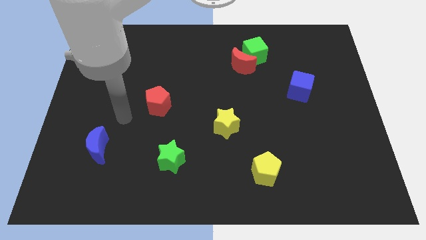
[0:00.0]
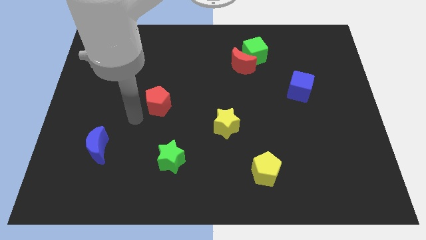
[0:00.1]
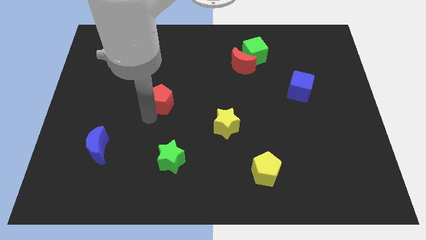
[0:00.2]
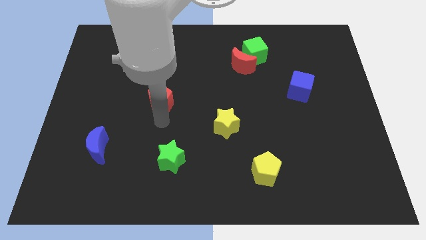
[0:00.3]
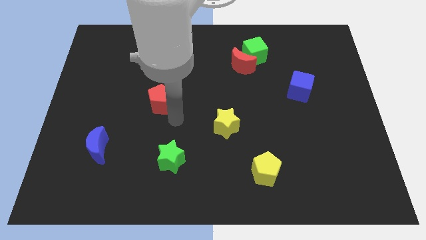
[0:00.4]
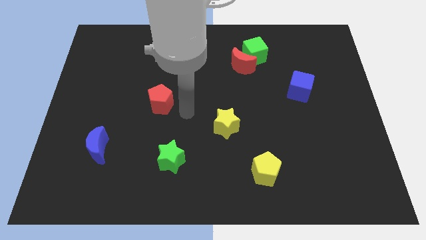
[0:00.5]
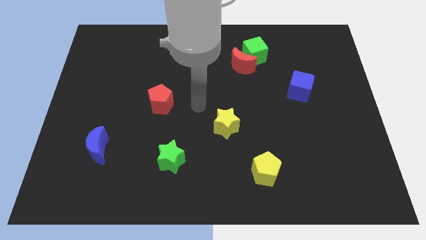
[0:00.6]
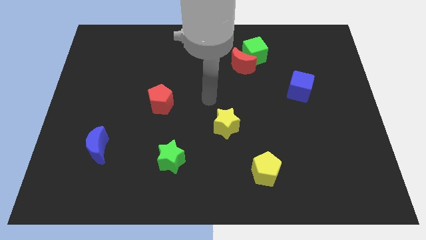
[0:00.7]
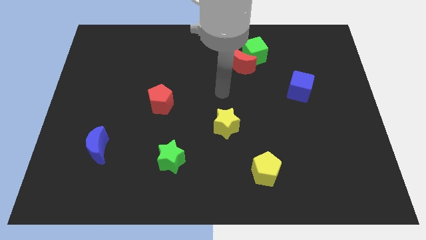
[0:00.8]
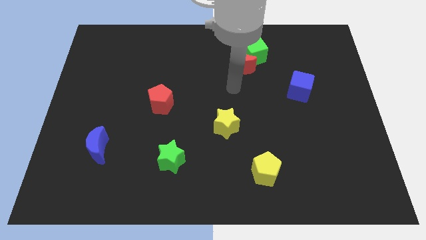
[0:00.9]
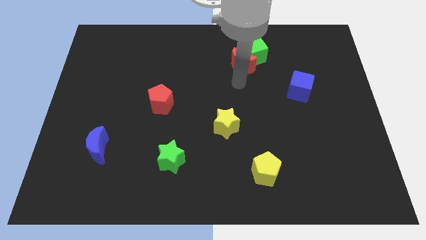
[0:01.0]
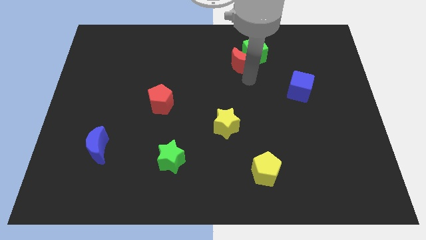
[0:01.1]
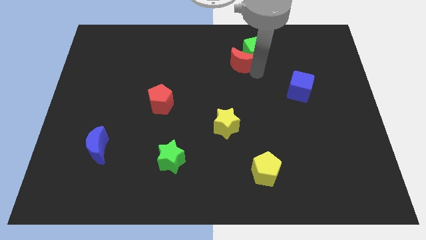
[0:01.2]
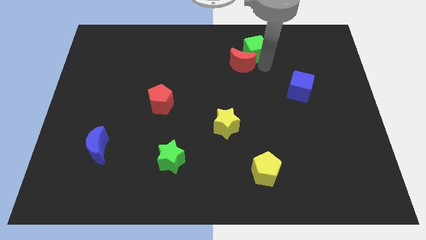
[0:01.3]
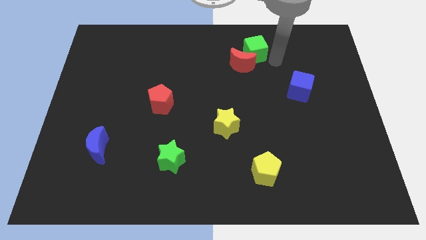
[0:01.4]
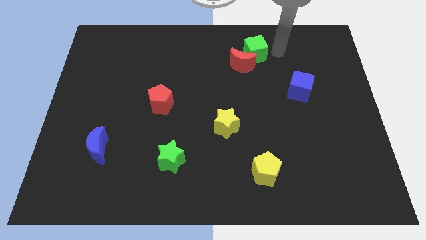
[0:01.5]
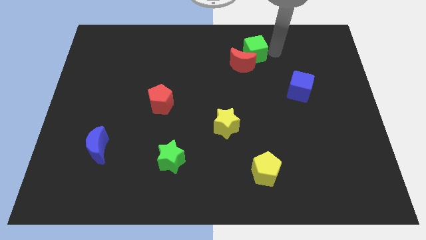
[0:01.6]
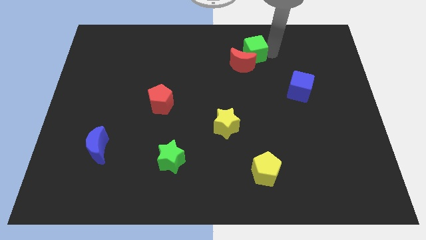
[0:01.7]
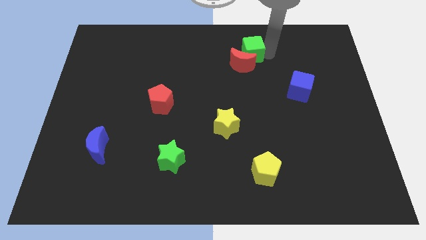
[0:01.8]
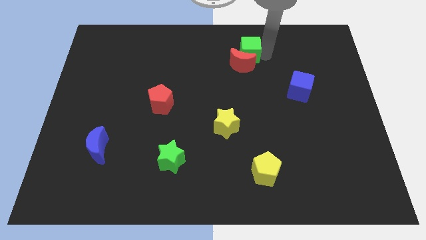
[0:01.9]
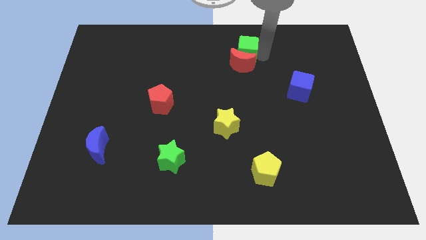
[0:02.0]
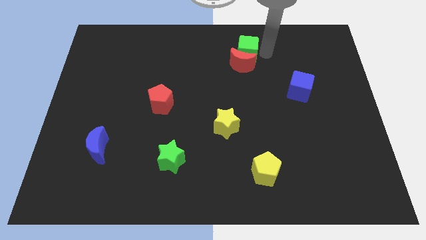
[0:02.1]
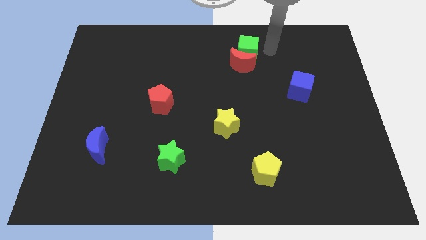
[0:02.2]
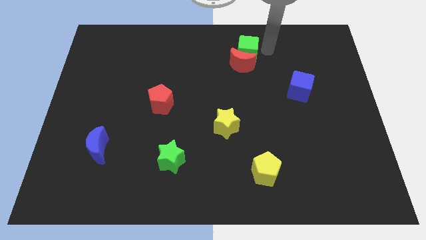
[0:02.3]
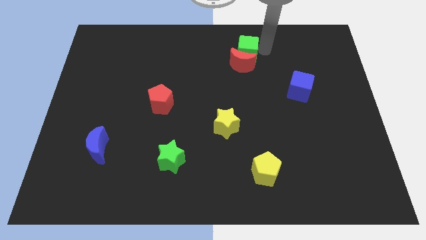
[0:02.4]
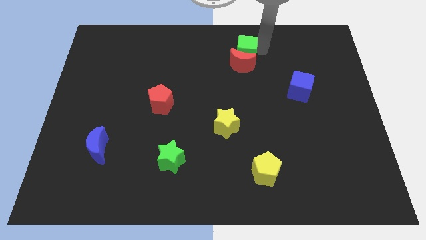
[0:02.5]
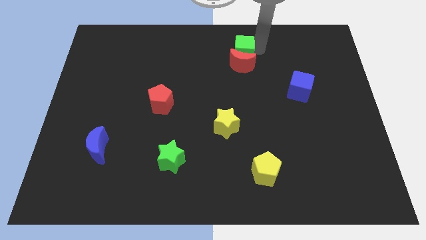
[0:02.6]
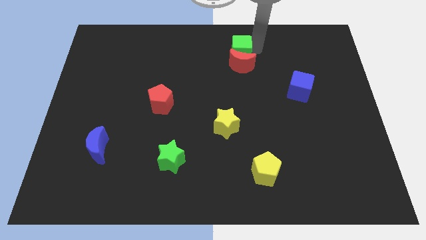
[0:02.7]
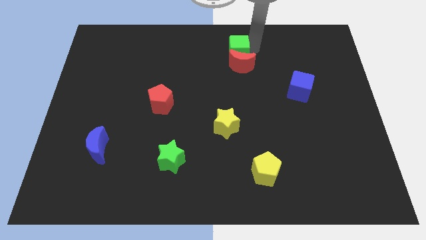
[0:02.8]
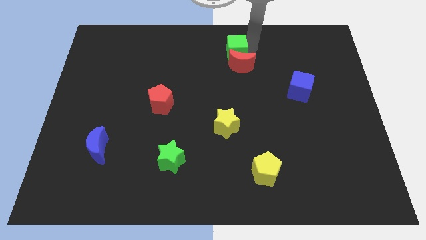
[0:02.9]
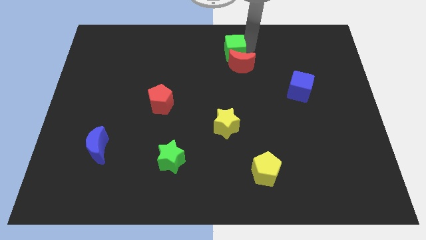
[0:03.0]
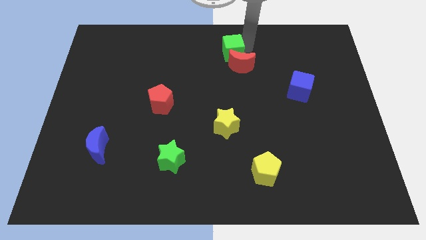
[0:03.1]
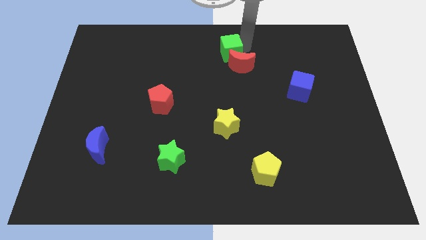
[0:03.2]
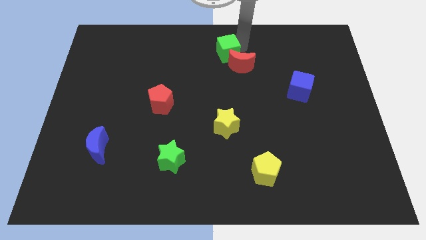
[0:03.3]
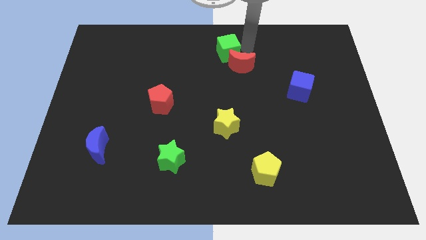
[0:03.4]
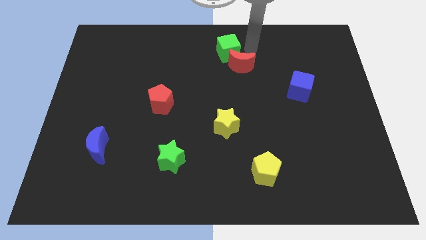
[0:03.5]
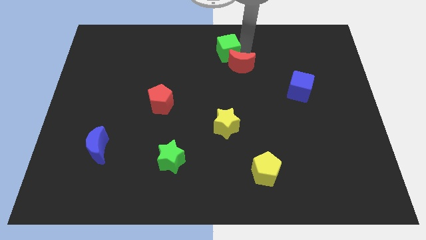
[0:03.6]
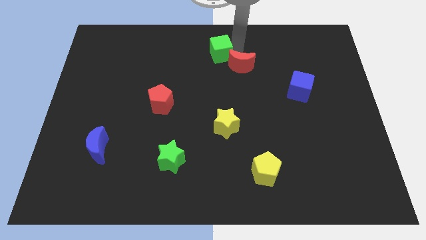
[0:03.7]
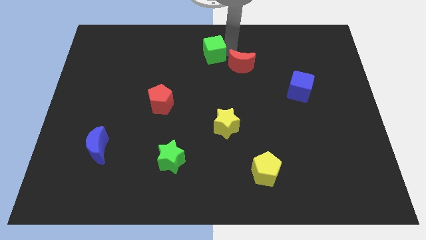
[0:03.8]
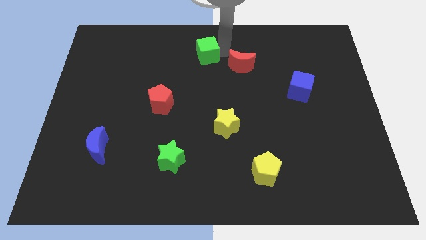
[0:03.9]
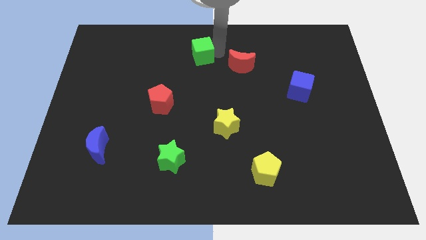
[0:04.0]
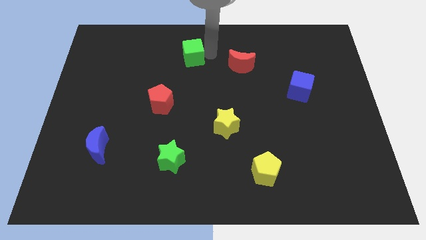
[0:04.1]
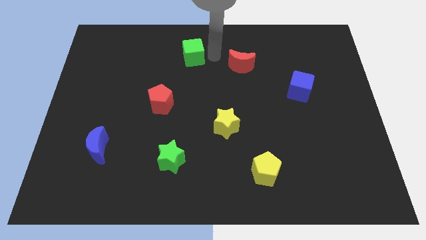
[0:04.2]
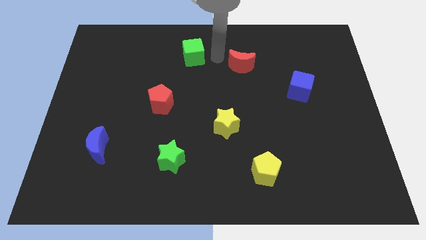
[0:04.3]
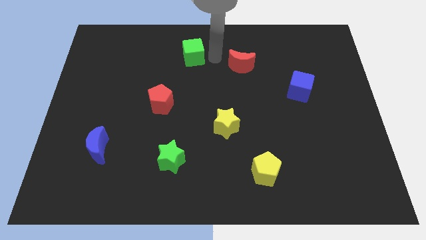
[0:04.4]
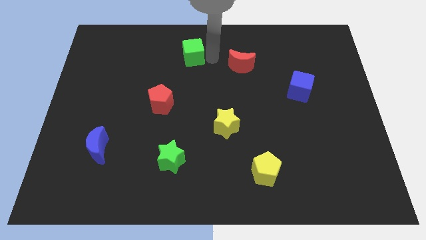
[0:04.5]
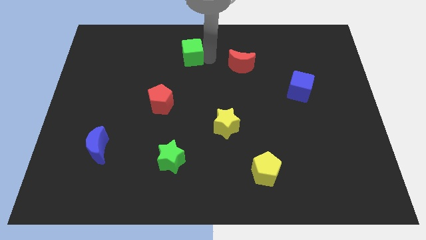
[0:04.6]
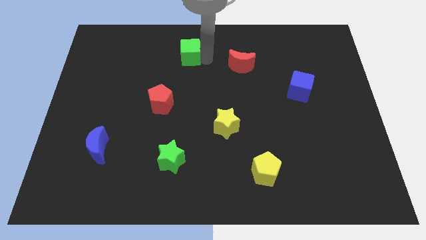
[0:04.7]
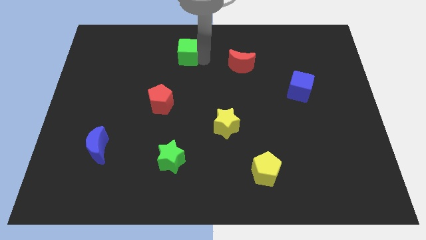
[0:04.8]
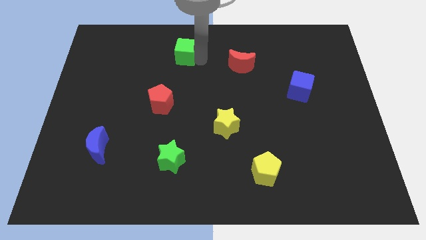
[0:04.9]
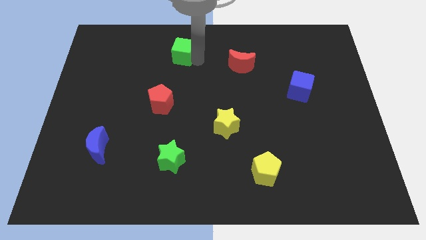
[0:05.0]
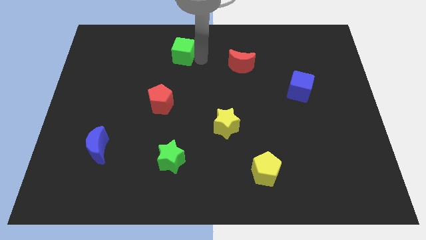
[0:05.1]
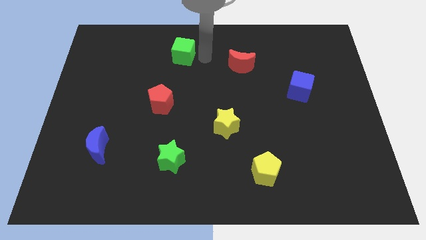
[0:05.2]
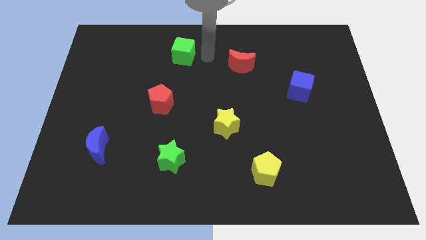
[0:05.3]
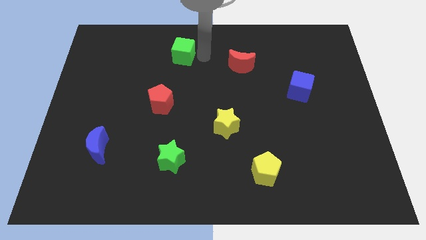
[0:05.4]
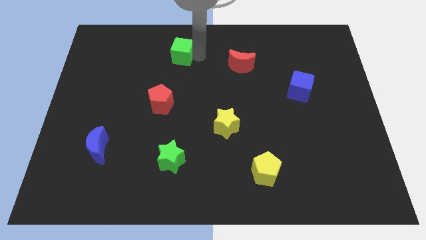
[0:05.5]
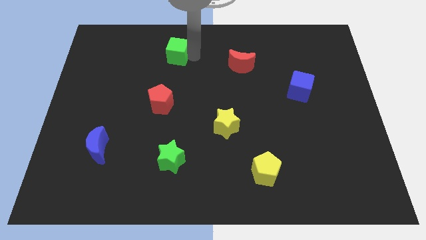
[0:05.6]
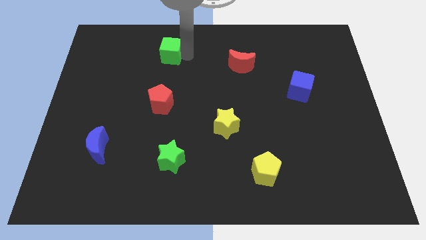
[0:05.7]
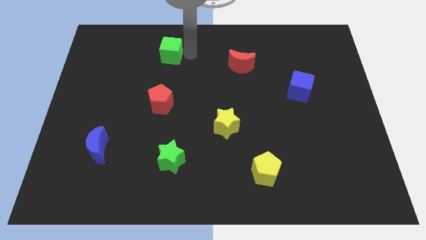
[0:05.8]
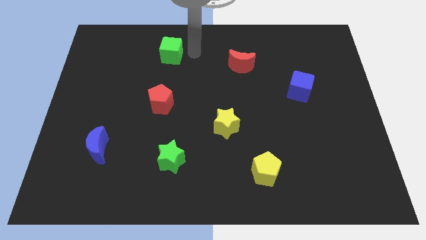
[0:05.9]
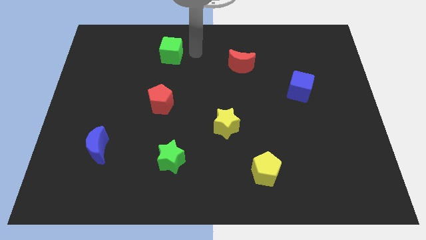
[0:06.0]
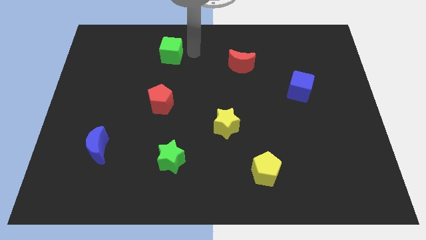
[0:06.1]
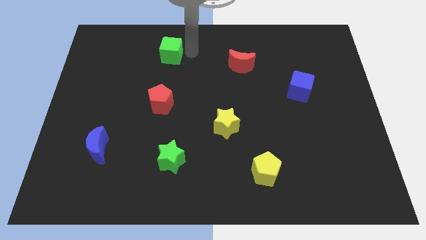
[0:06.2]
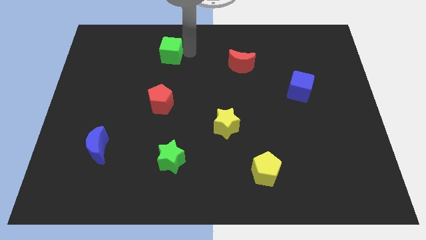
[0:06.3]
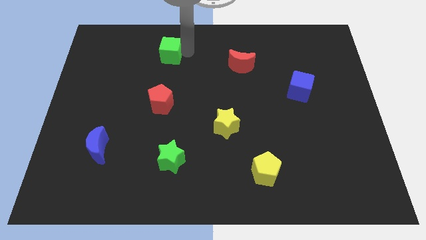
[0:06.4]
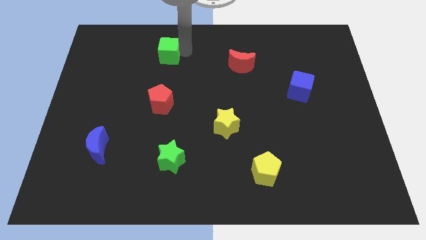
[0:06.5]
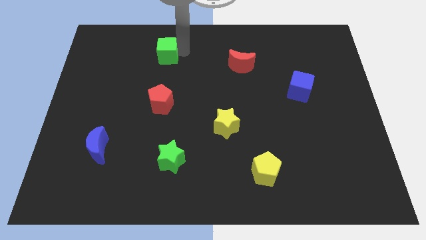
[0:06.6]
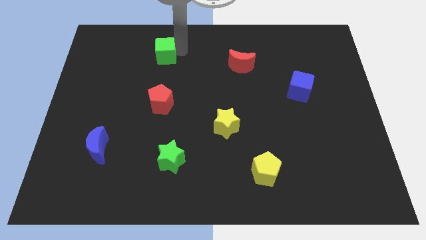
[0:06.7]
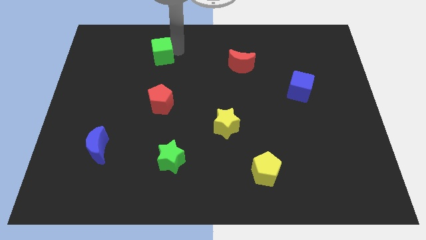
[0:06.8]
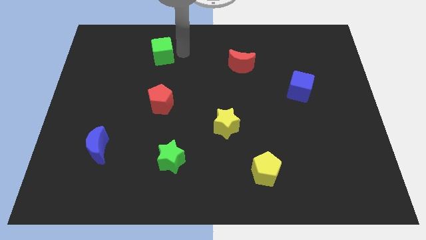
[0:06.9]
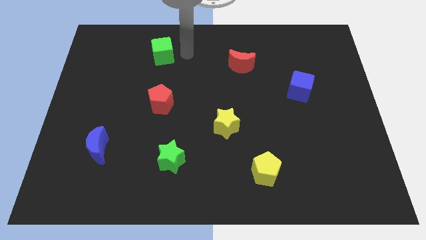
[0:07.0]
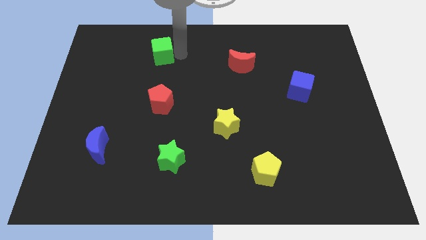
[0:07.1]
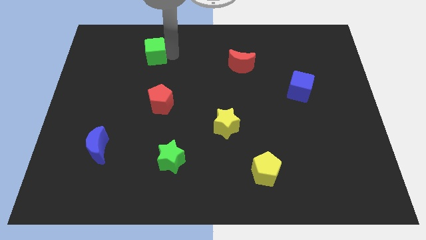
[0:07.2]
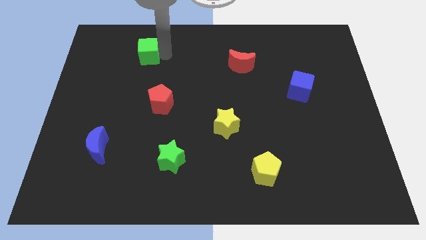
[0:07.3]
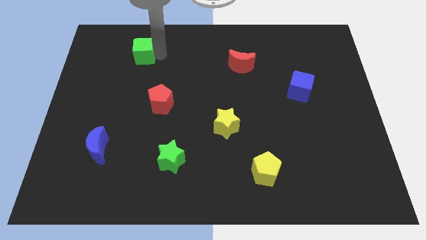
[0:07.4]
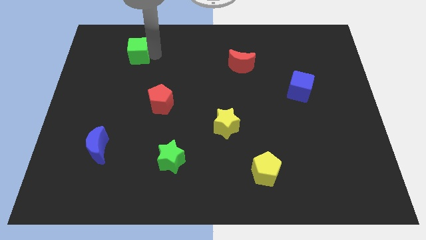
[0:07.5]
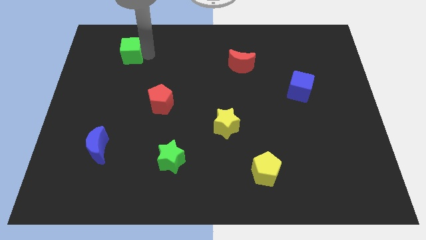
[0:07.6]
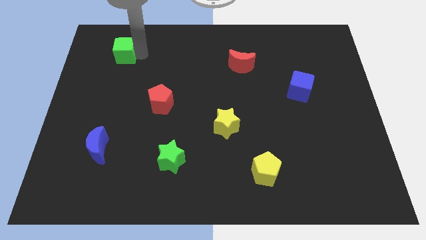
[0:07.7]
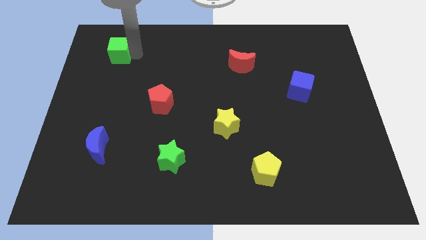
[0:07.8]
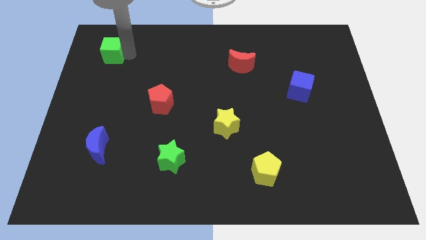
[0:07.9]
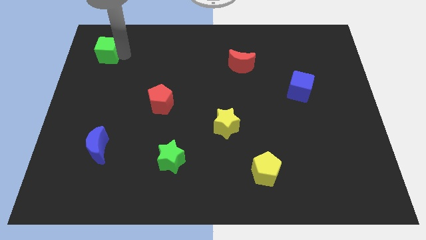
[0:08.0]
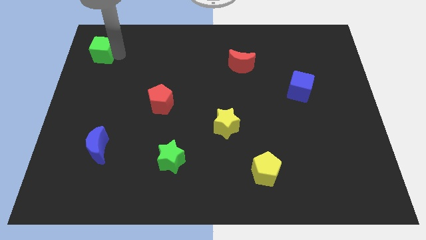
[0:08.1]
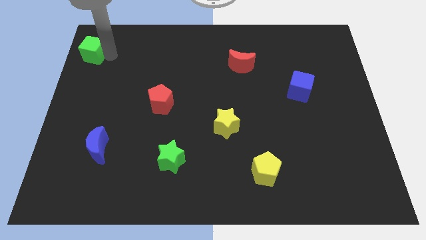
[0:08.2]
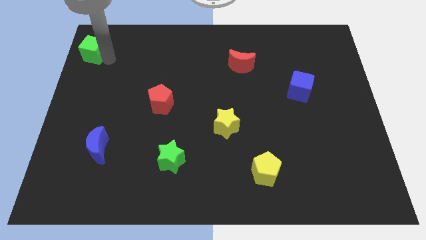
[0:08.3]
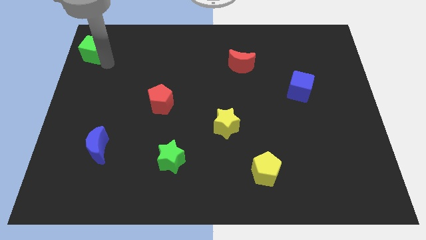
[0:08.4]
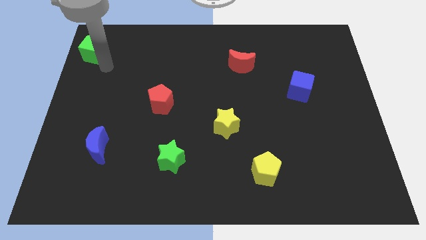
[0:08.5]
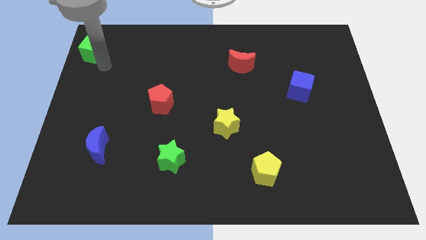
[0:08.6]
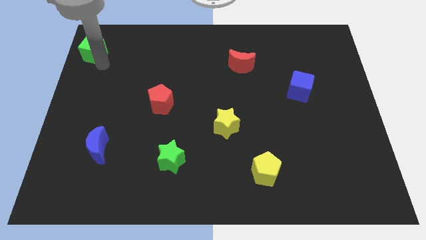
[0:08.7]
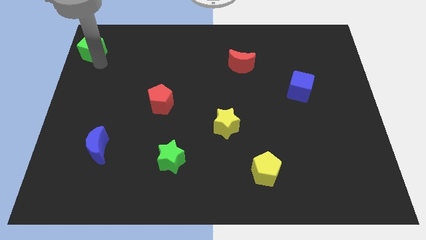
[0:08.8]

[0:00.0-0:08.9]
put the green cube to the upper left corner
